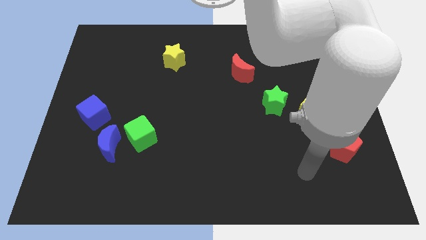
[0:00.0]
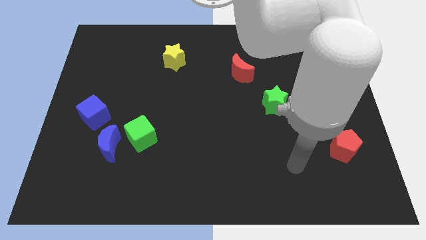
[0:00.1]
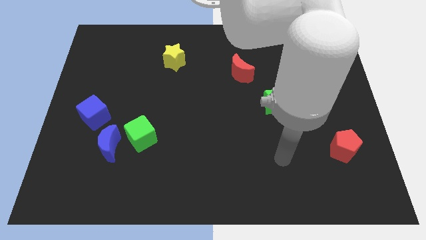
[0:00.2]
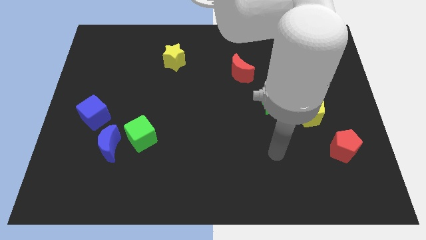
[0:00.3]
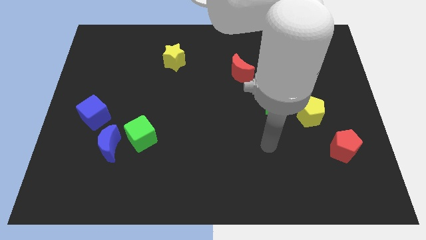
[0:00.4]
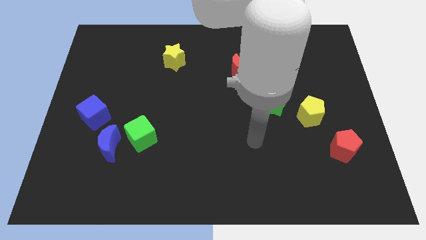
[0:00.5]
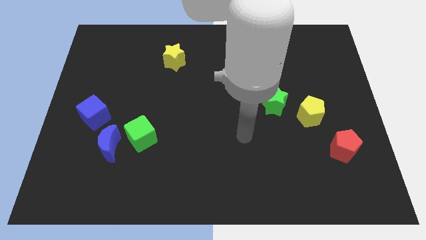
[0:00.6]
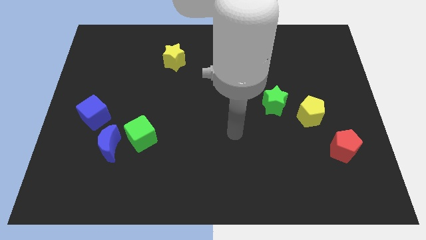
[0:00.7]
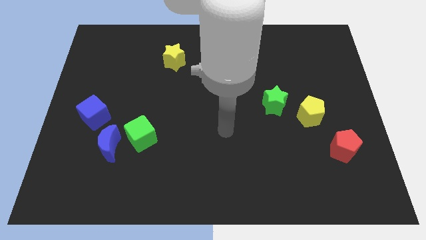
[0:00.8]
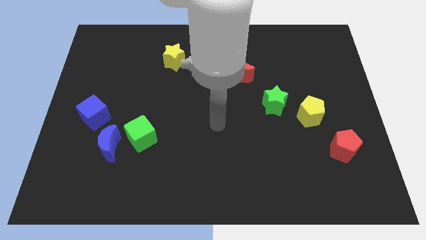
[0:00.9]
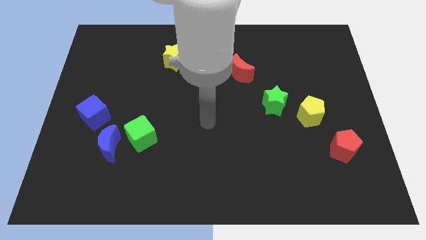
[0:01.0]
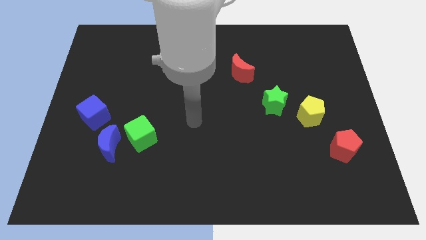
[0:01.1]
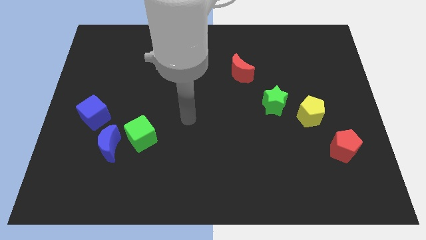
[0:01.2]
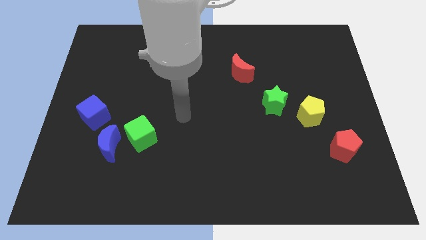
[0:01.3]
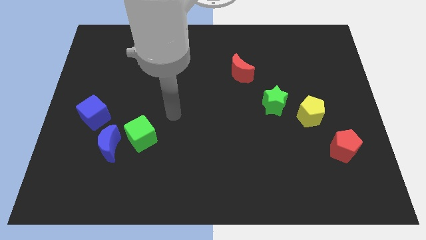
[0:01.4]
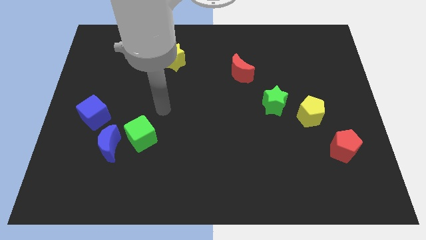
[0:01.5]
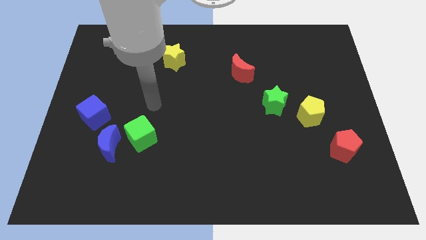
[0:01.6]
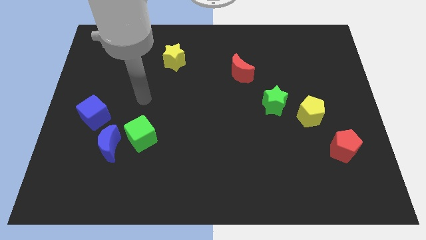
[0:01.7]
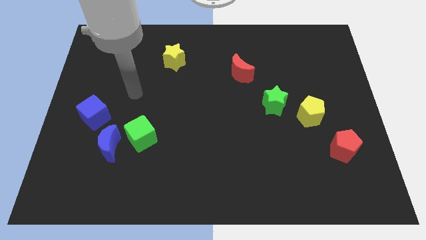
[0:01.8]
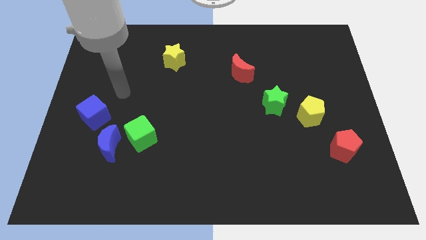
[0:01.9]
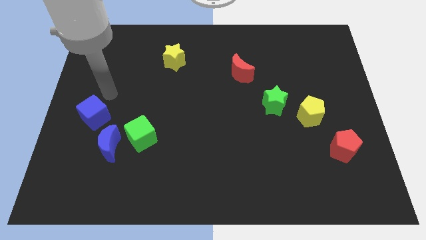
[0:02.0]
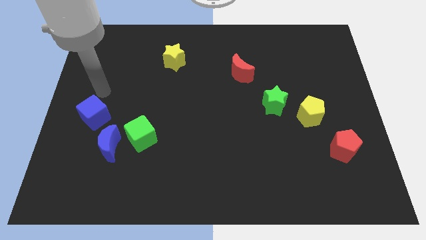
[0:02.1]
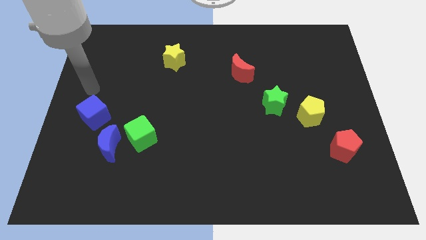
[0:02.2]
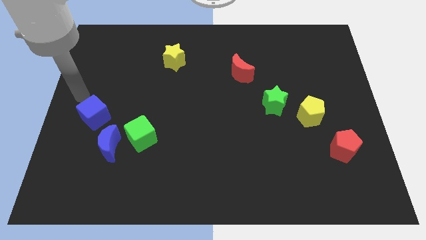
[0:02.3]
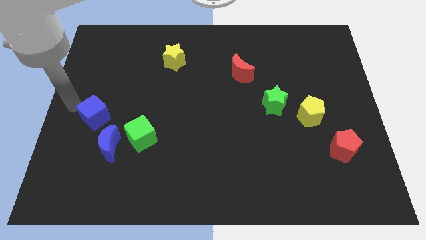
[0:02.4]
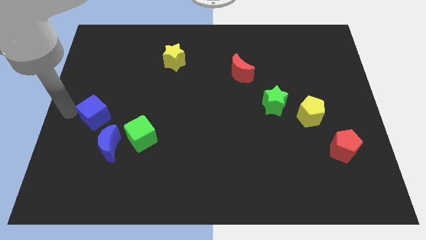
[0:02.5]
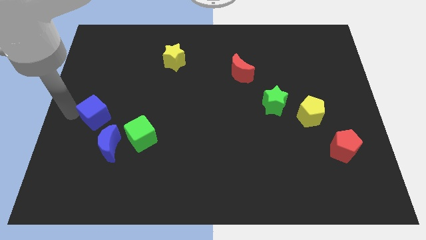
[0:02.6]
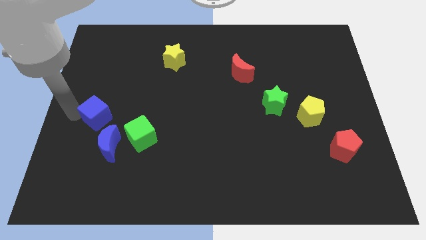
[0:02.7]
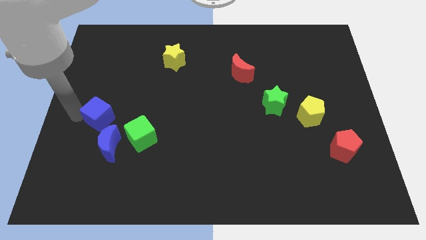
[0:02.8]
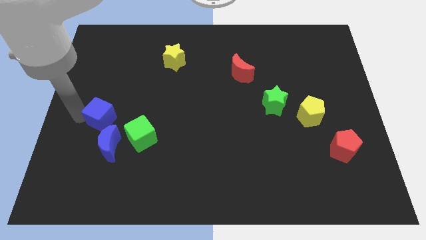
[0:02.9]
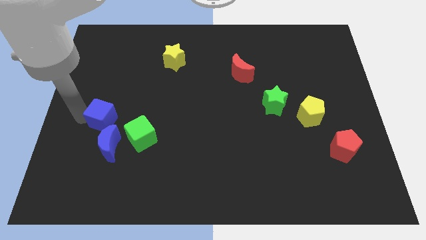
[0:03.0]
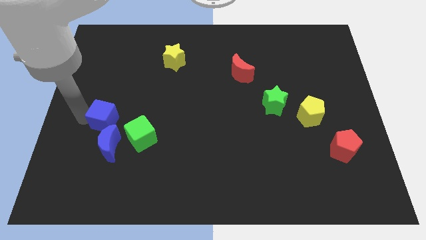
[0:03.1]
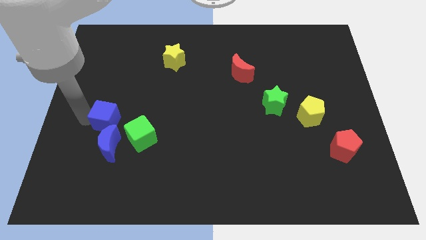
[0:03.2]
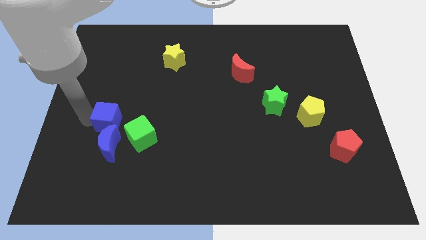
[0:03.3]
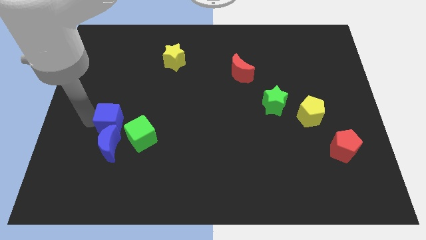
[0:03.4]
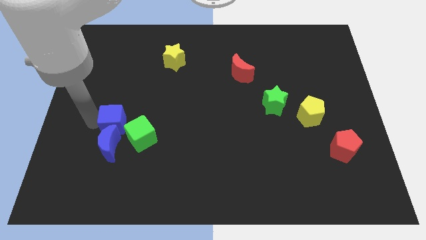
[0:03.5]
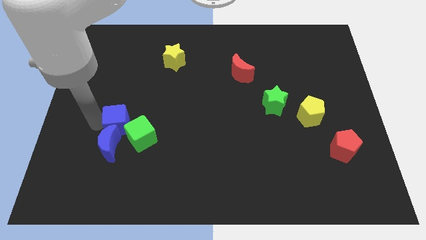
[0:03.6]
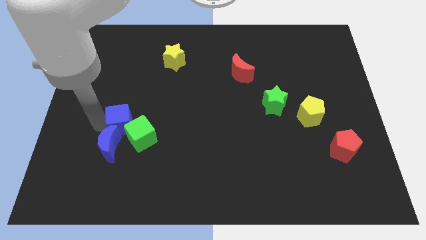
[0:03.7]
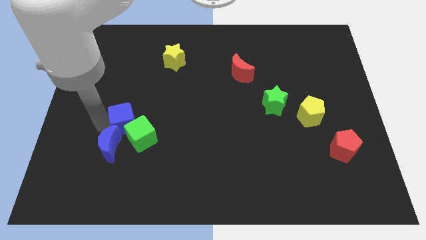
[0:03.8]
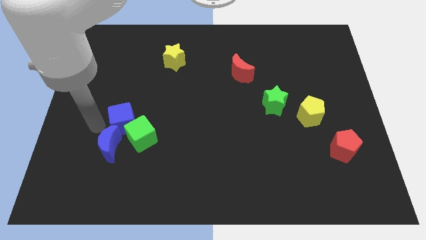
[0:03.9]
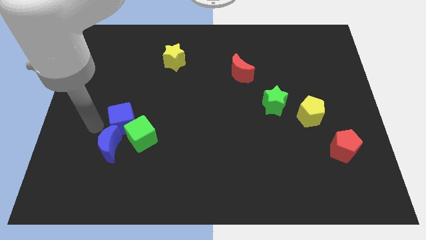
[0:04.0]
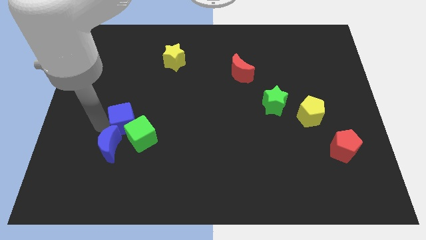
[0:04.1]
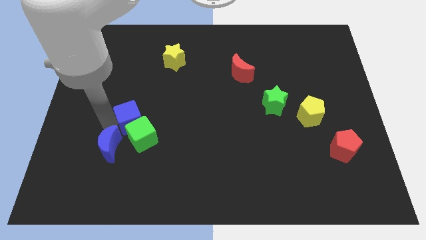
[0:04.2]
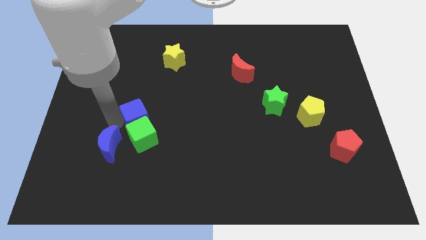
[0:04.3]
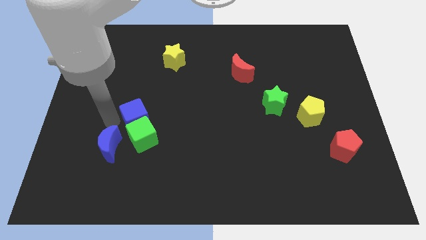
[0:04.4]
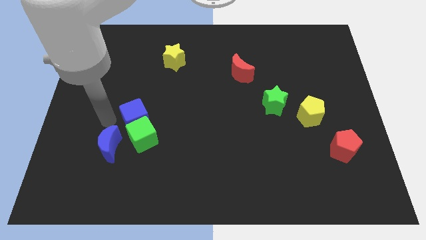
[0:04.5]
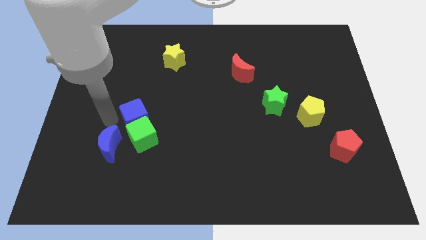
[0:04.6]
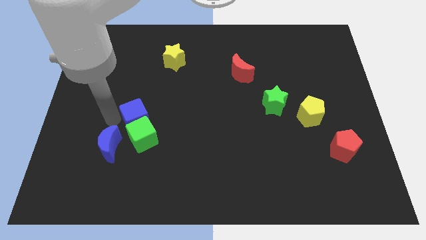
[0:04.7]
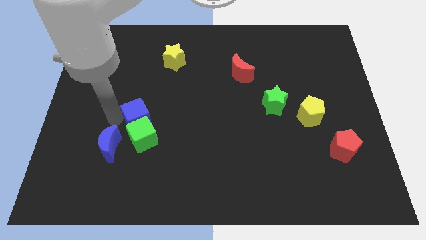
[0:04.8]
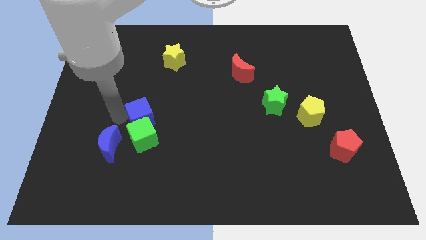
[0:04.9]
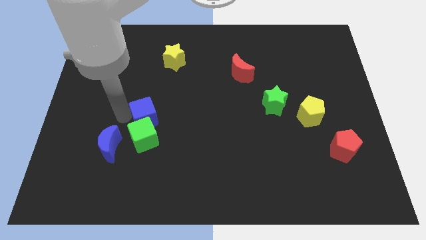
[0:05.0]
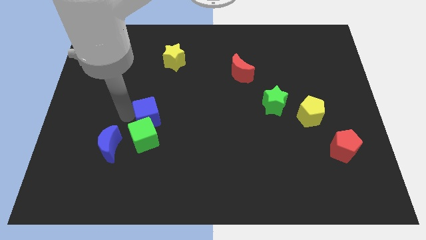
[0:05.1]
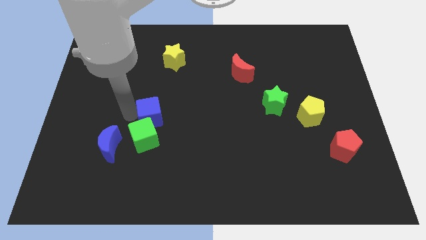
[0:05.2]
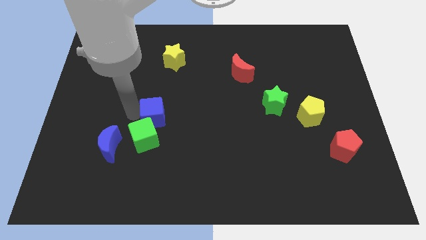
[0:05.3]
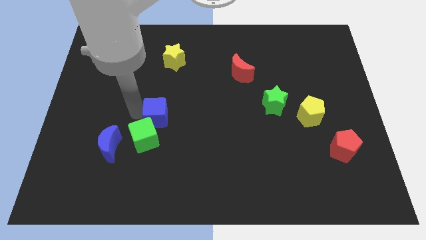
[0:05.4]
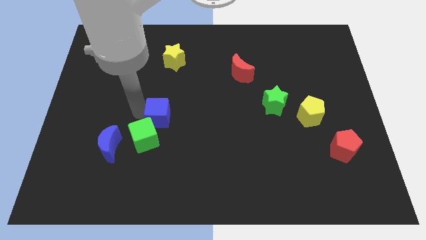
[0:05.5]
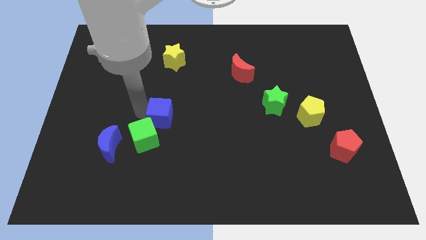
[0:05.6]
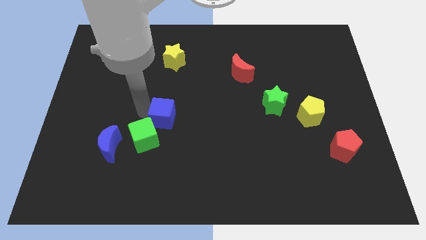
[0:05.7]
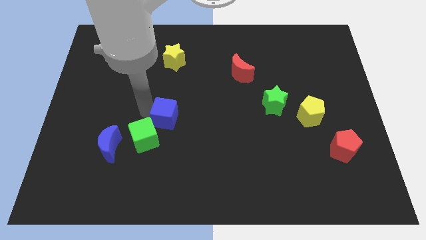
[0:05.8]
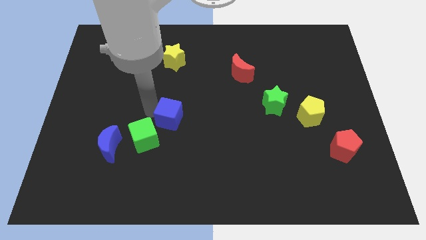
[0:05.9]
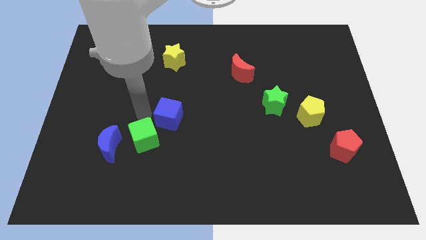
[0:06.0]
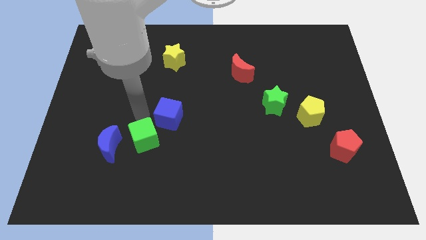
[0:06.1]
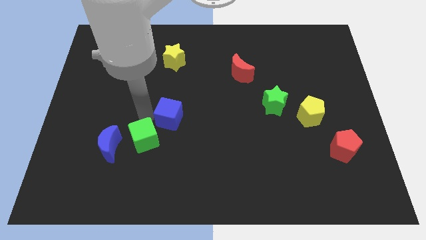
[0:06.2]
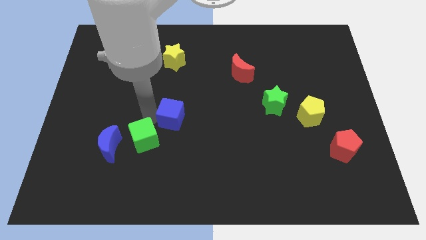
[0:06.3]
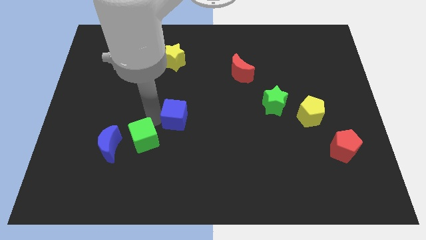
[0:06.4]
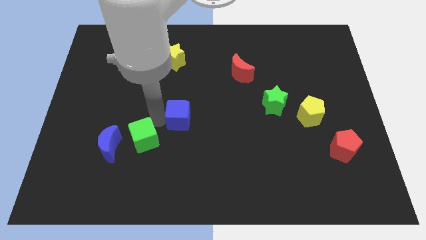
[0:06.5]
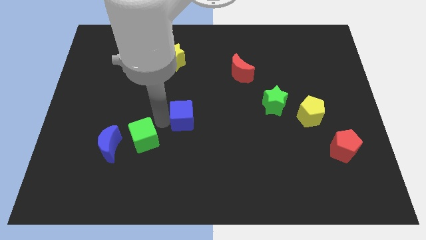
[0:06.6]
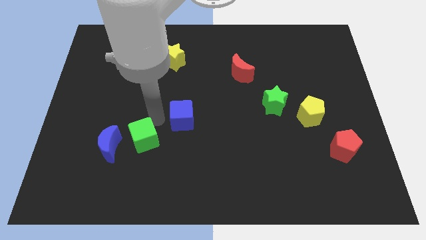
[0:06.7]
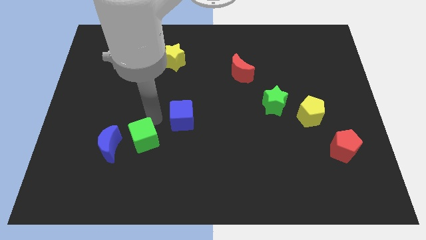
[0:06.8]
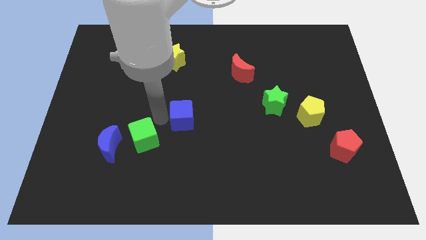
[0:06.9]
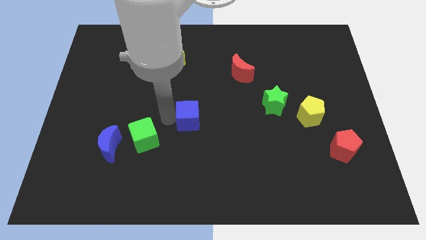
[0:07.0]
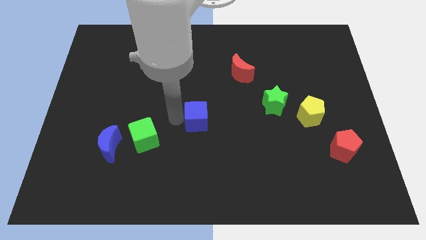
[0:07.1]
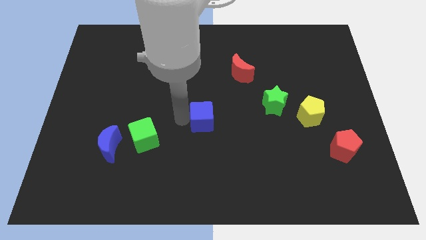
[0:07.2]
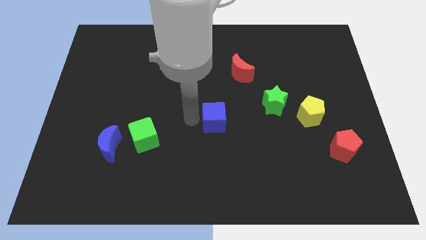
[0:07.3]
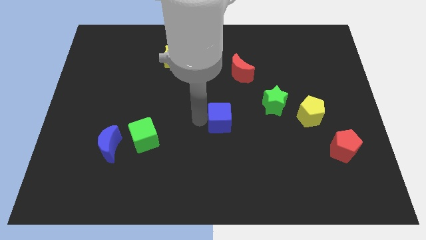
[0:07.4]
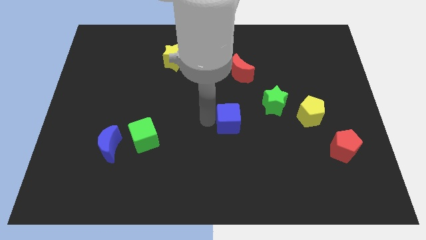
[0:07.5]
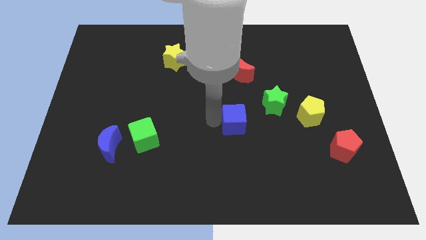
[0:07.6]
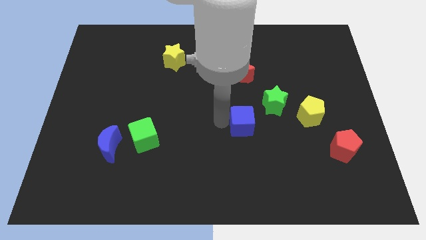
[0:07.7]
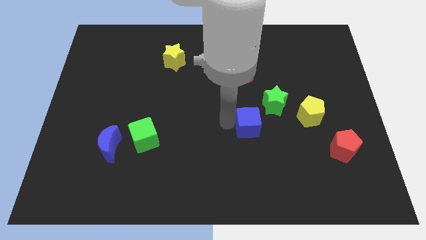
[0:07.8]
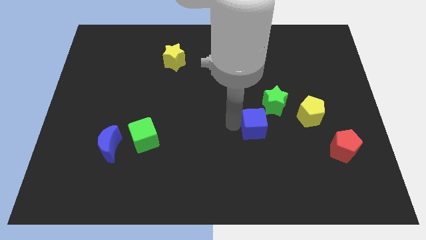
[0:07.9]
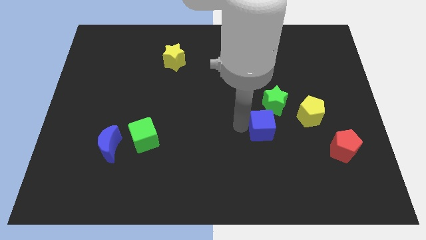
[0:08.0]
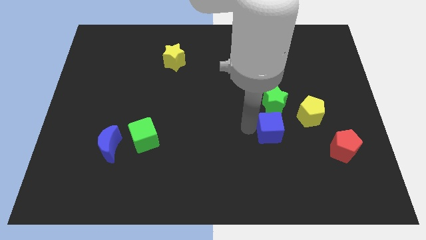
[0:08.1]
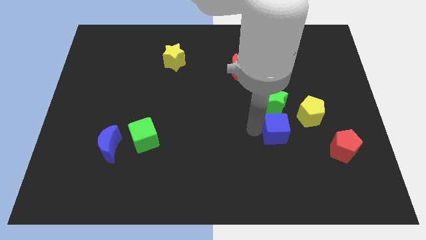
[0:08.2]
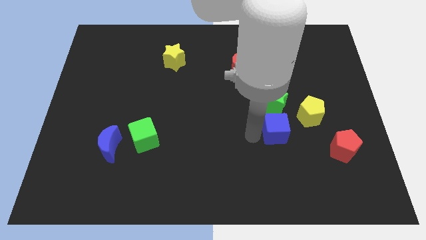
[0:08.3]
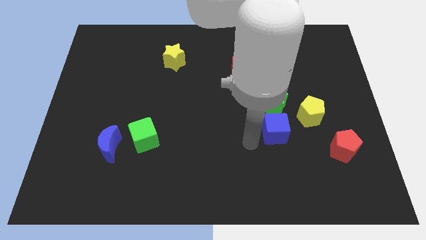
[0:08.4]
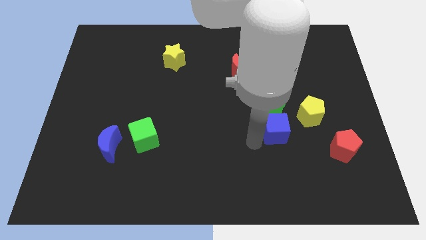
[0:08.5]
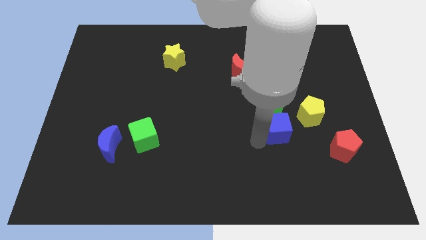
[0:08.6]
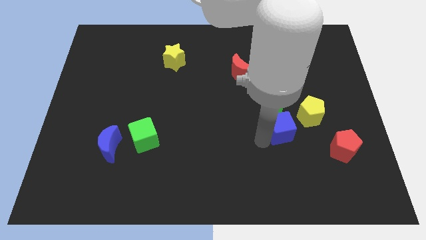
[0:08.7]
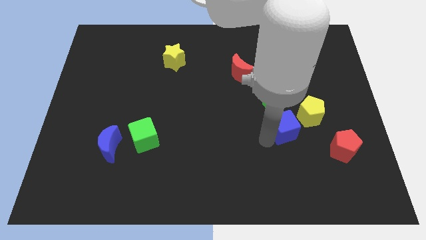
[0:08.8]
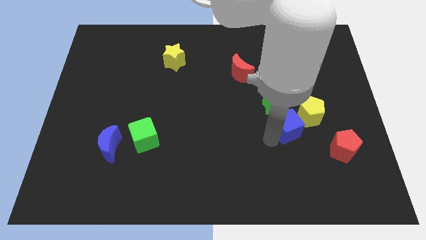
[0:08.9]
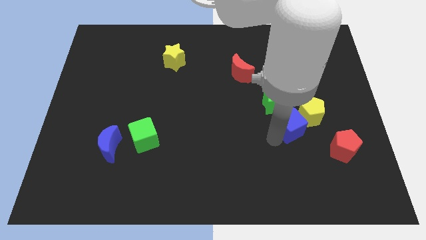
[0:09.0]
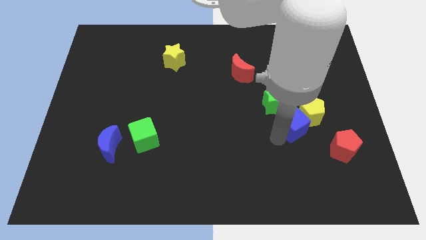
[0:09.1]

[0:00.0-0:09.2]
put the blue cube next to the yellow pentagon
